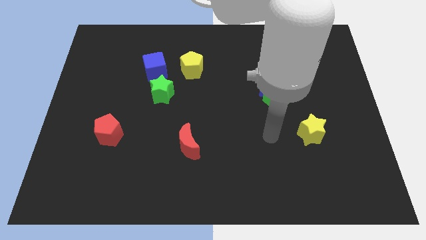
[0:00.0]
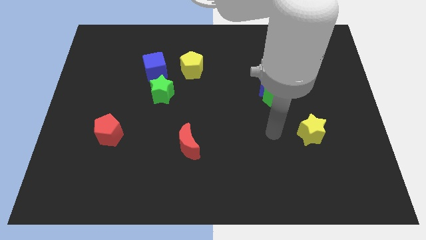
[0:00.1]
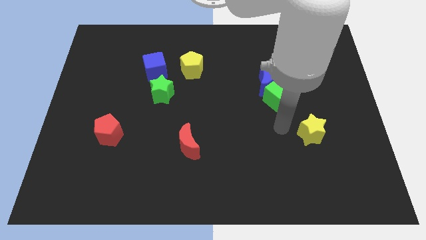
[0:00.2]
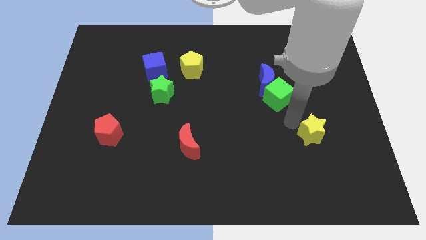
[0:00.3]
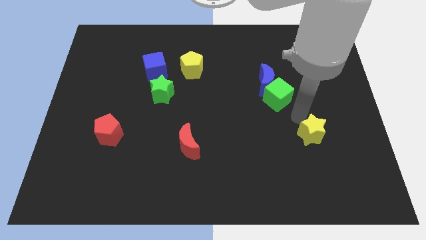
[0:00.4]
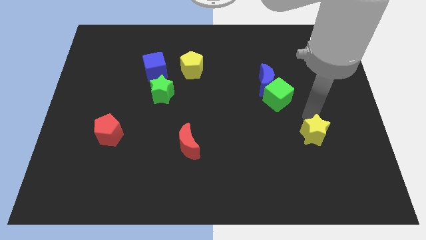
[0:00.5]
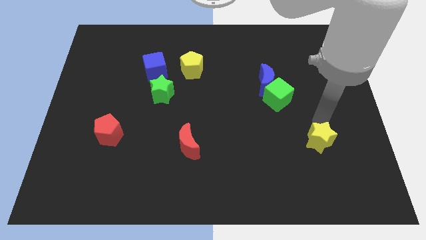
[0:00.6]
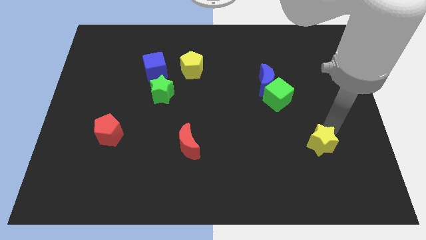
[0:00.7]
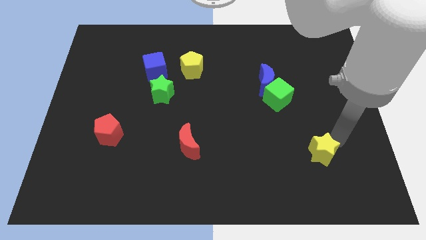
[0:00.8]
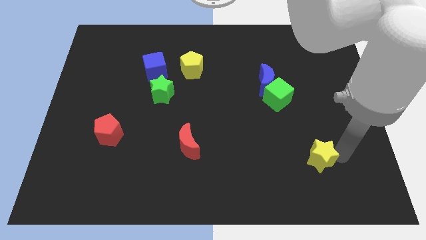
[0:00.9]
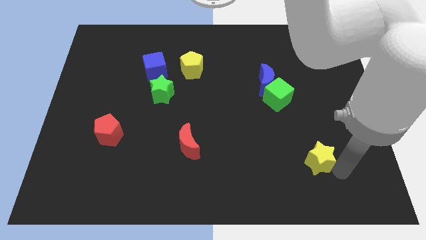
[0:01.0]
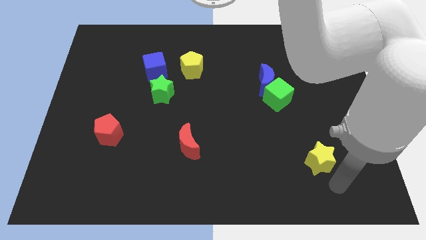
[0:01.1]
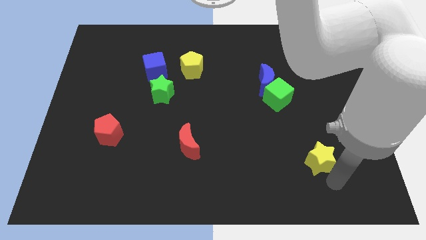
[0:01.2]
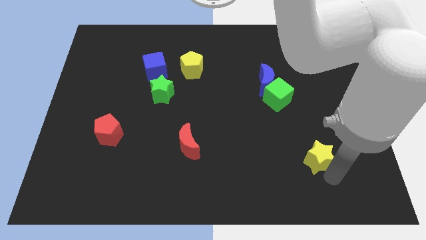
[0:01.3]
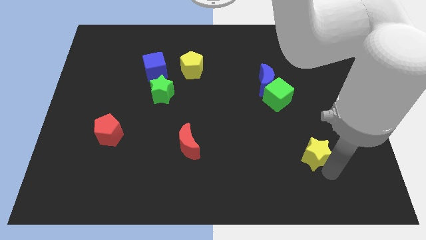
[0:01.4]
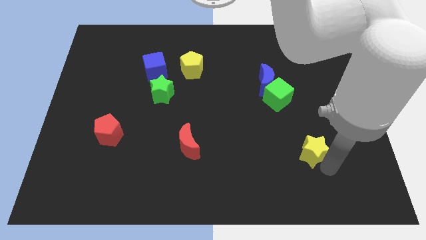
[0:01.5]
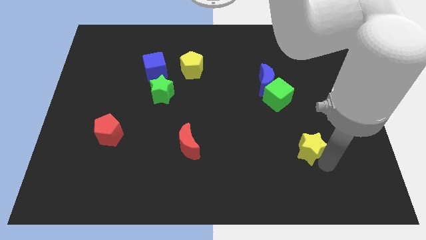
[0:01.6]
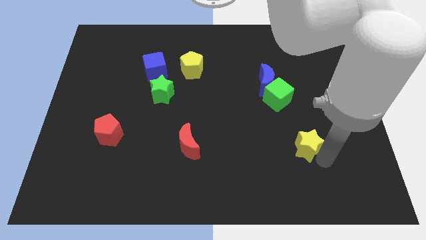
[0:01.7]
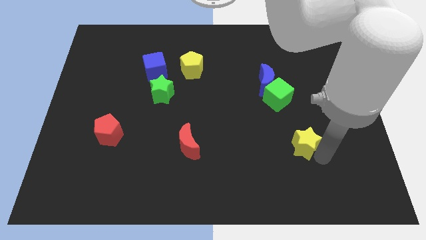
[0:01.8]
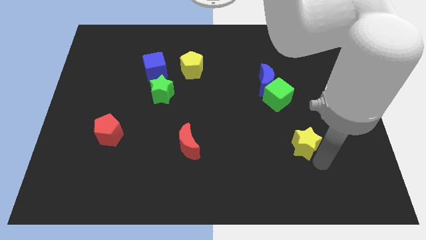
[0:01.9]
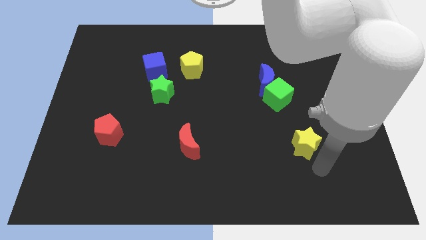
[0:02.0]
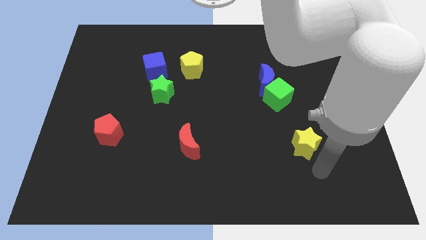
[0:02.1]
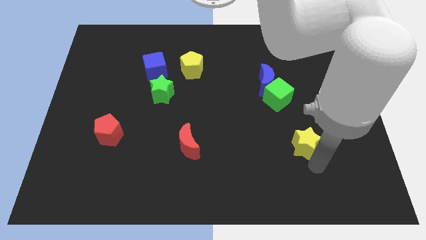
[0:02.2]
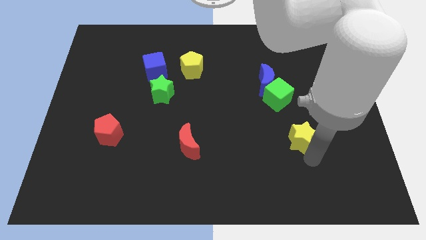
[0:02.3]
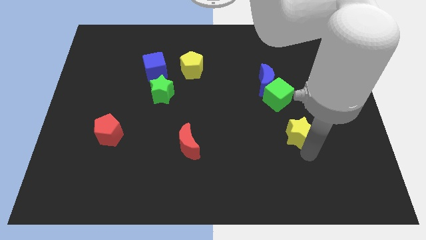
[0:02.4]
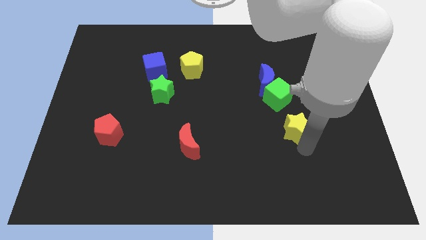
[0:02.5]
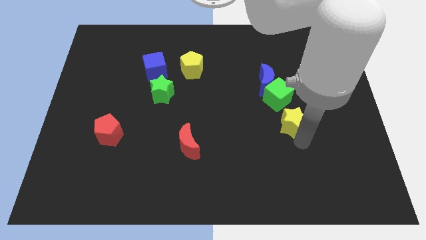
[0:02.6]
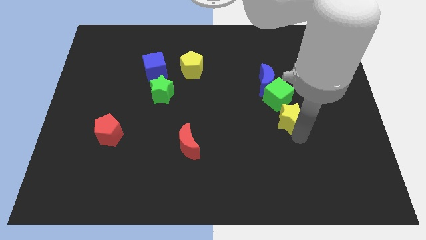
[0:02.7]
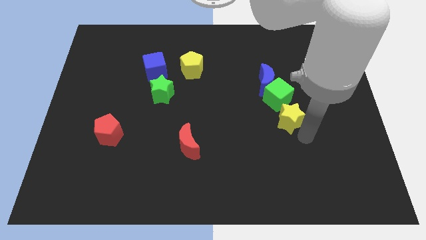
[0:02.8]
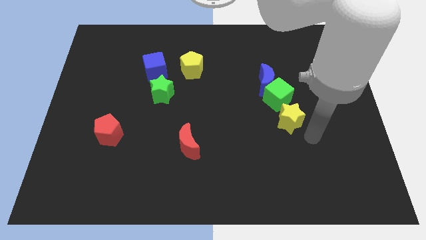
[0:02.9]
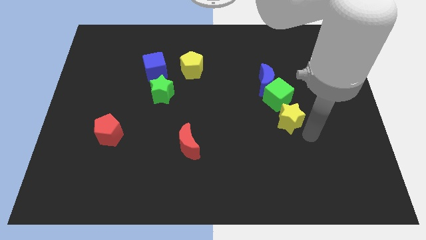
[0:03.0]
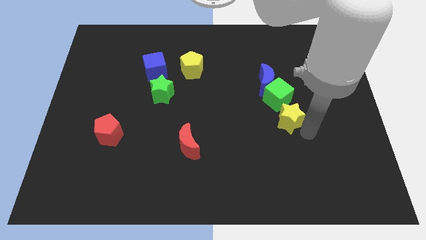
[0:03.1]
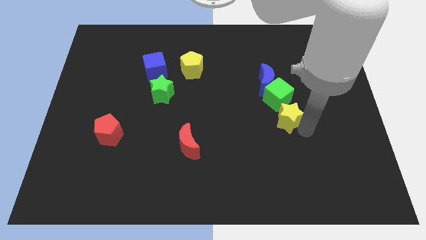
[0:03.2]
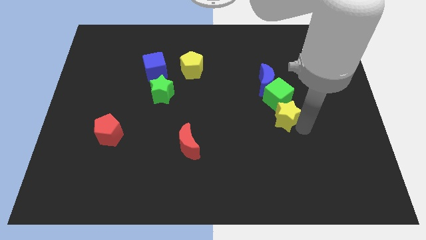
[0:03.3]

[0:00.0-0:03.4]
move the yellow star upwards and to the left somewhat

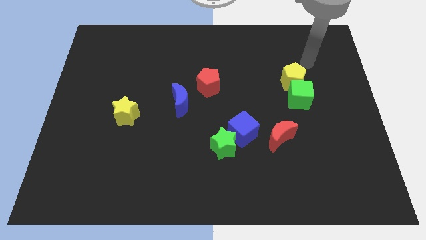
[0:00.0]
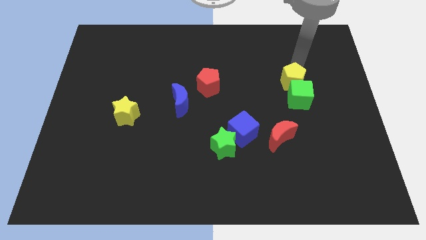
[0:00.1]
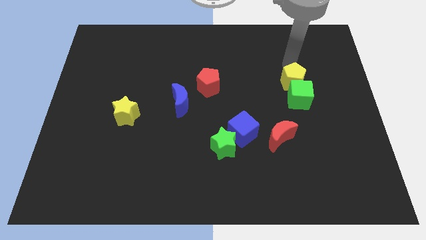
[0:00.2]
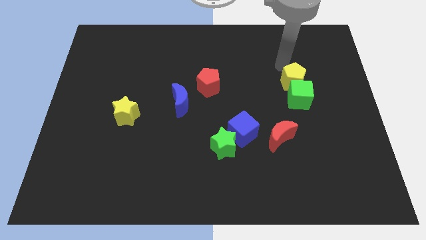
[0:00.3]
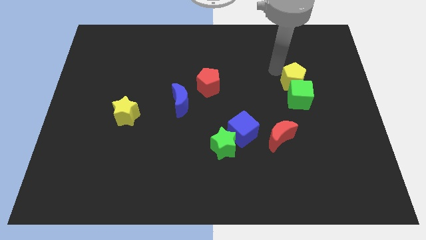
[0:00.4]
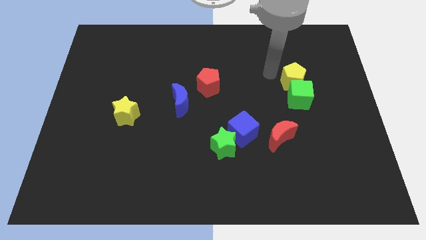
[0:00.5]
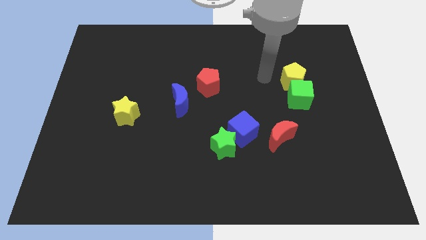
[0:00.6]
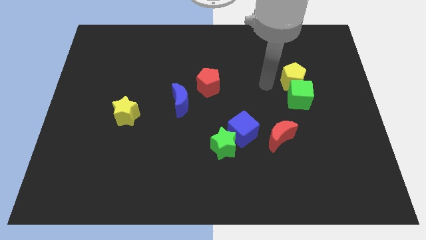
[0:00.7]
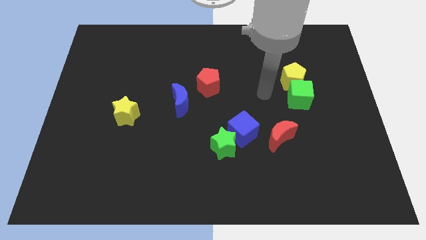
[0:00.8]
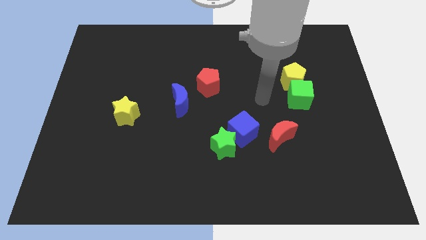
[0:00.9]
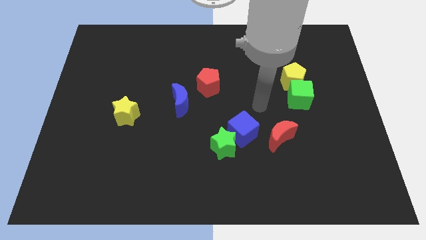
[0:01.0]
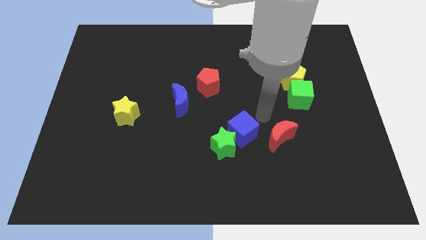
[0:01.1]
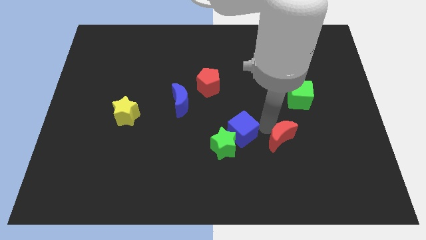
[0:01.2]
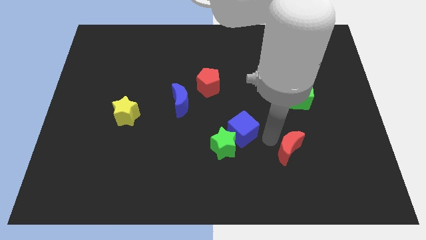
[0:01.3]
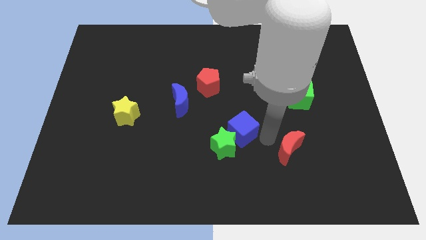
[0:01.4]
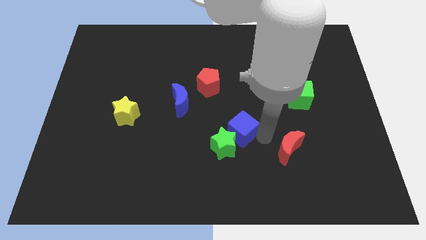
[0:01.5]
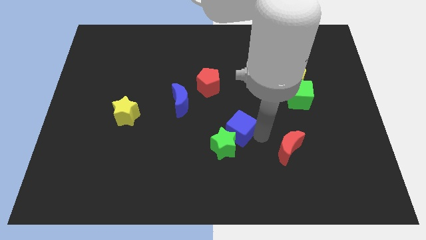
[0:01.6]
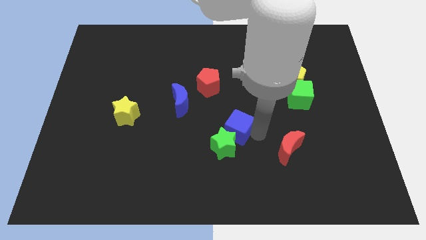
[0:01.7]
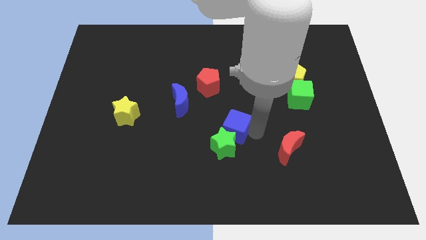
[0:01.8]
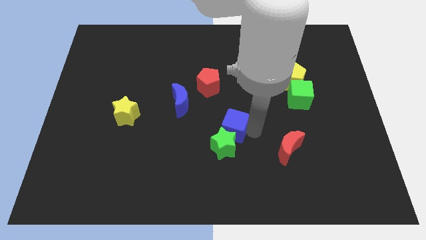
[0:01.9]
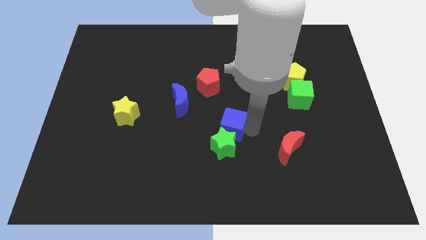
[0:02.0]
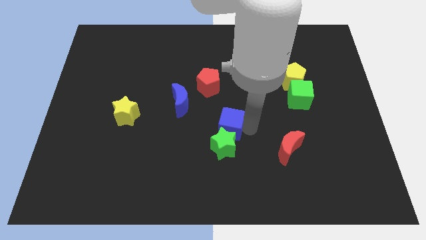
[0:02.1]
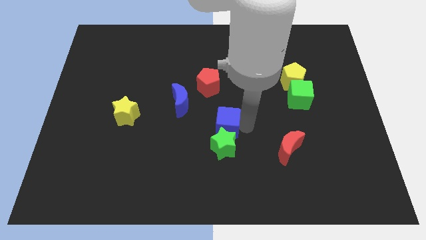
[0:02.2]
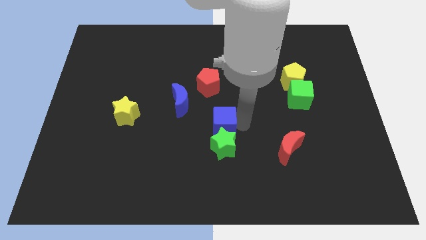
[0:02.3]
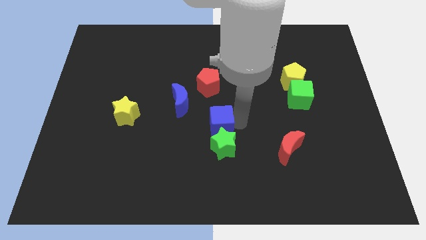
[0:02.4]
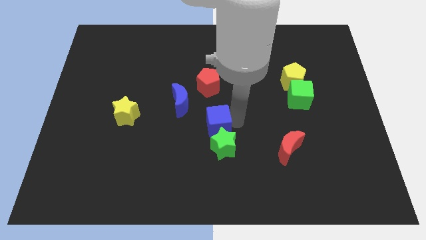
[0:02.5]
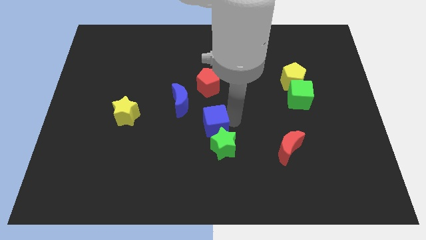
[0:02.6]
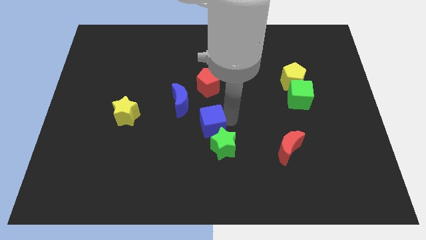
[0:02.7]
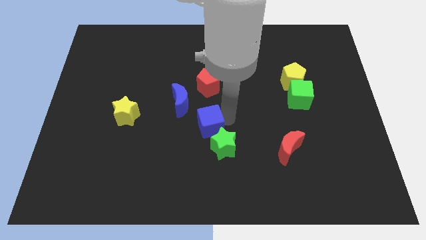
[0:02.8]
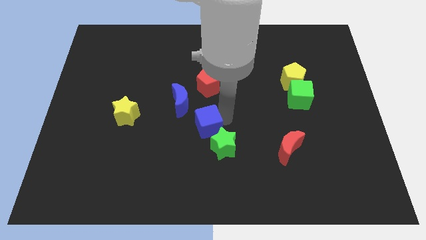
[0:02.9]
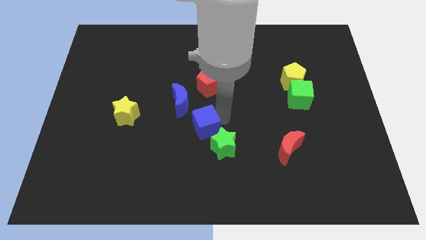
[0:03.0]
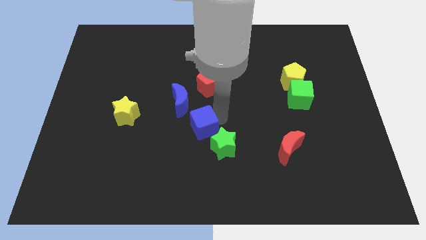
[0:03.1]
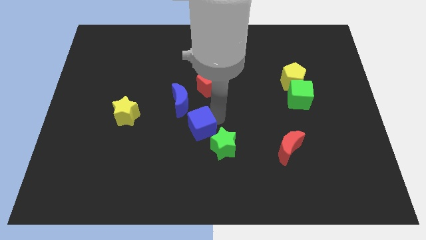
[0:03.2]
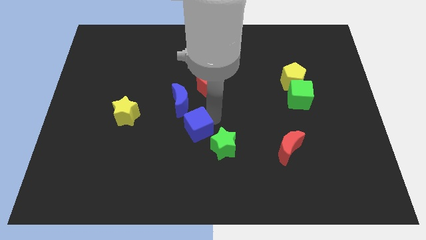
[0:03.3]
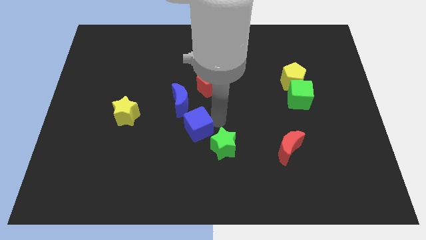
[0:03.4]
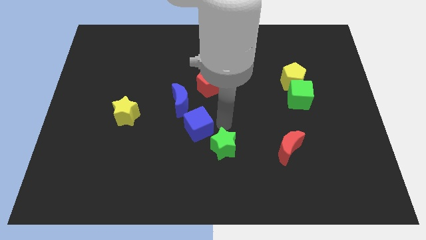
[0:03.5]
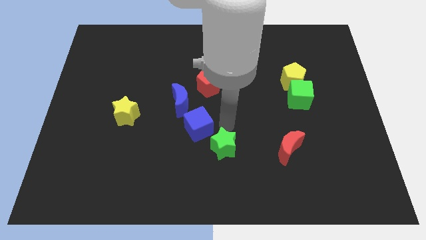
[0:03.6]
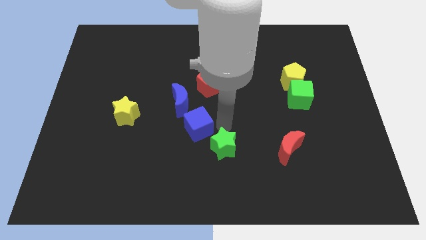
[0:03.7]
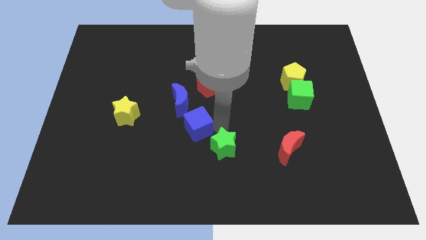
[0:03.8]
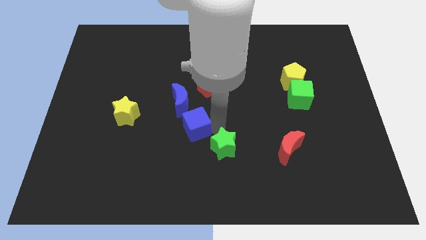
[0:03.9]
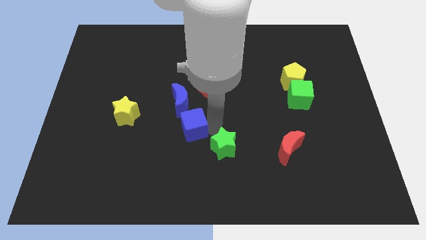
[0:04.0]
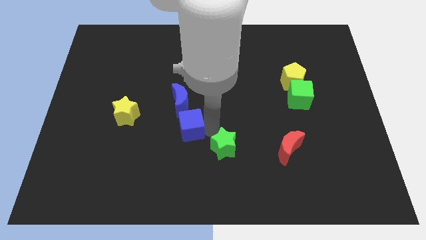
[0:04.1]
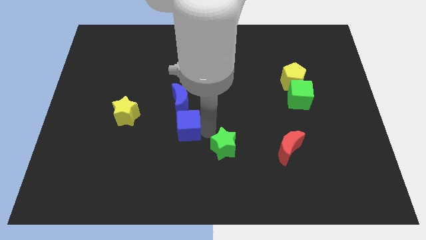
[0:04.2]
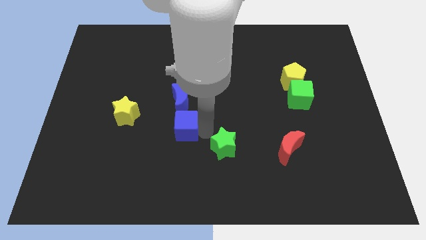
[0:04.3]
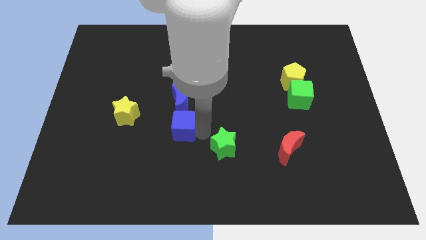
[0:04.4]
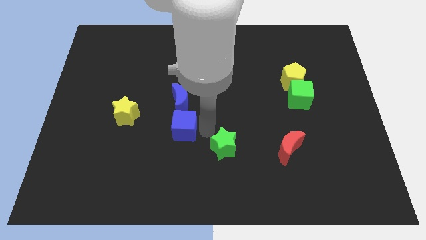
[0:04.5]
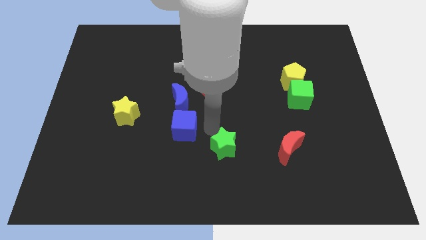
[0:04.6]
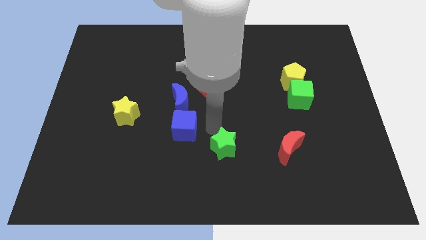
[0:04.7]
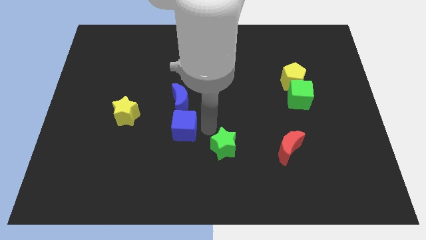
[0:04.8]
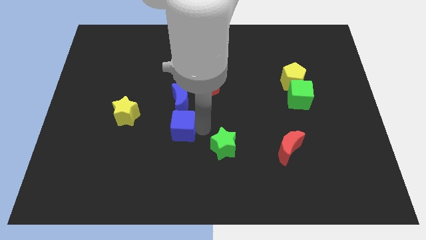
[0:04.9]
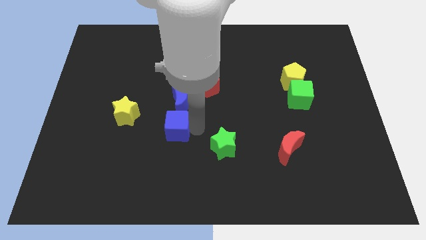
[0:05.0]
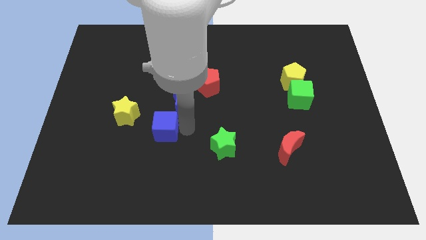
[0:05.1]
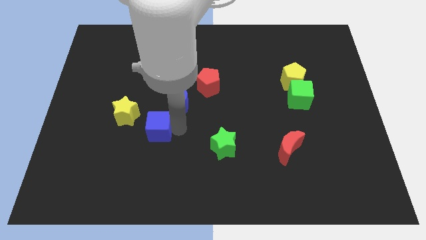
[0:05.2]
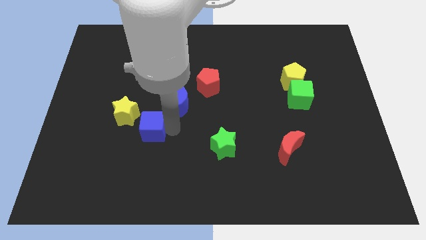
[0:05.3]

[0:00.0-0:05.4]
move the blue cube left
